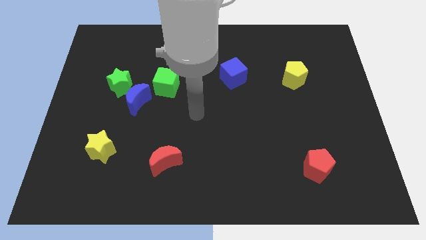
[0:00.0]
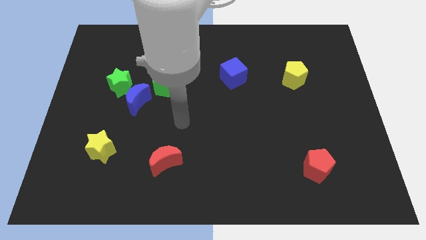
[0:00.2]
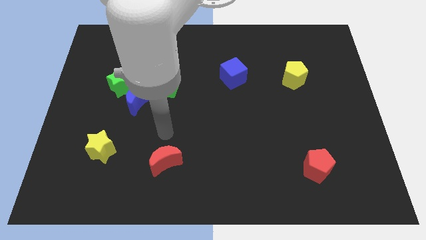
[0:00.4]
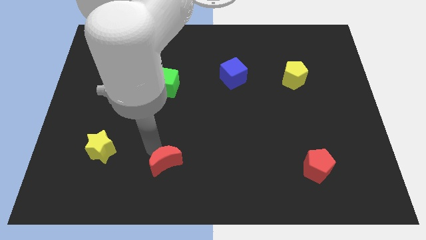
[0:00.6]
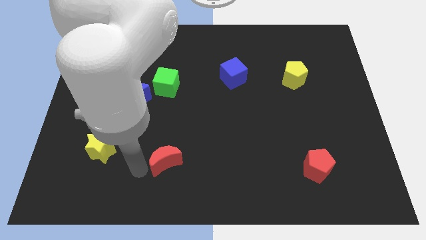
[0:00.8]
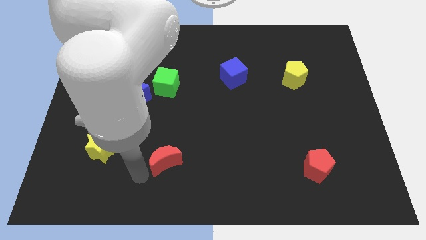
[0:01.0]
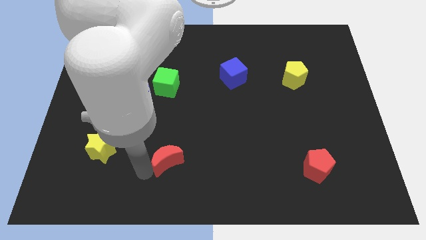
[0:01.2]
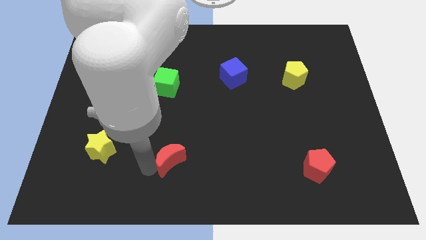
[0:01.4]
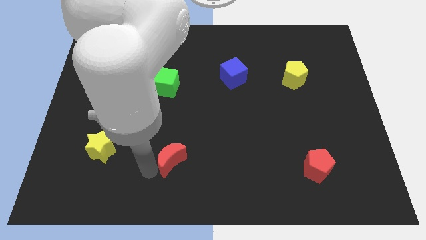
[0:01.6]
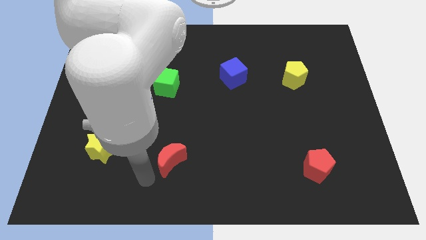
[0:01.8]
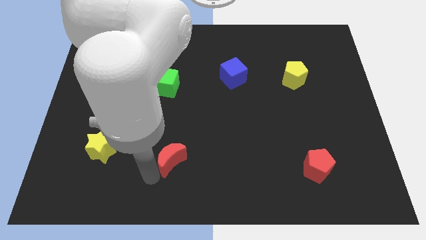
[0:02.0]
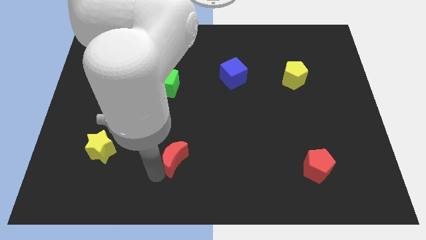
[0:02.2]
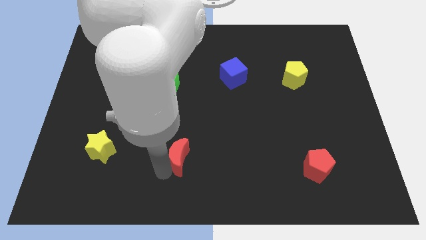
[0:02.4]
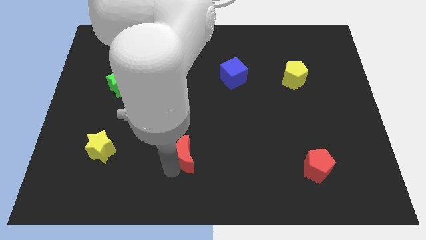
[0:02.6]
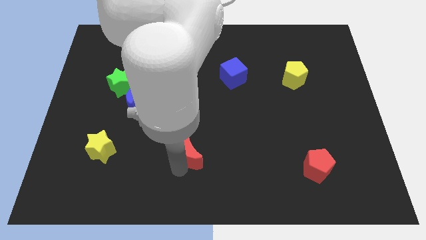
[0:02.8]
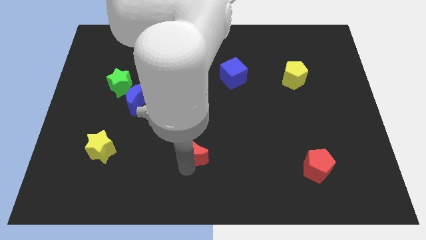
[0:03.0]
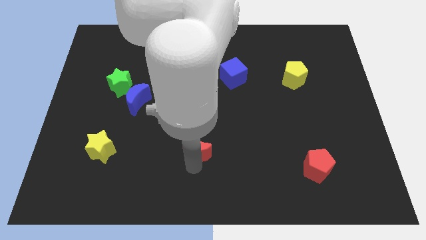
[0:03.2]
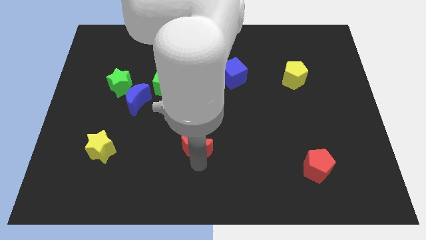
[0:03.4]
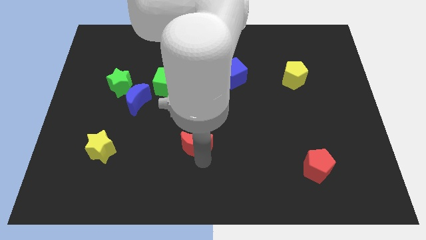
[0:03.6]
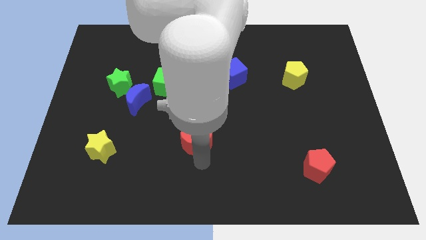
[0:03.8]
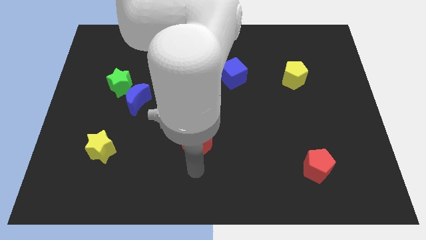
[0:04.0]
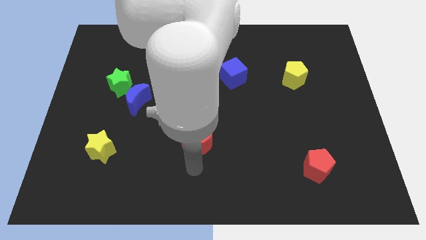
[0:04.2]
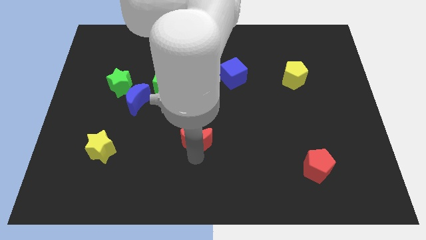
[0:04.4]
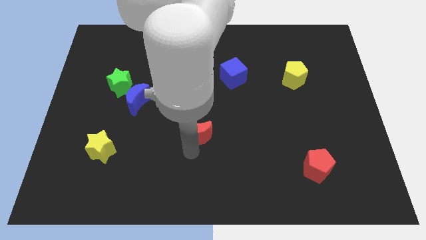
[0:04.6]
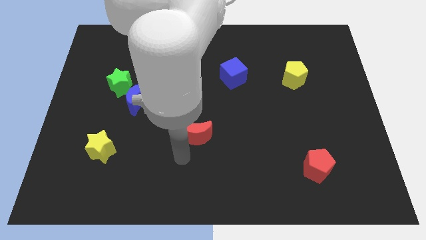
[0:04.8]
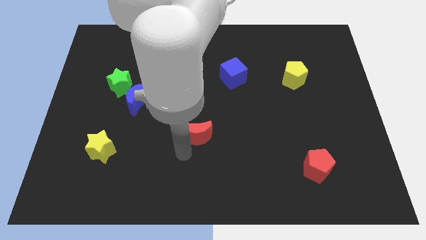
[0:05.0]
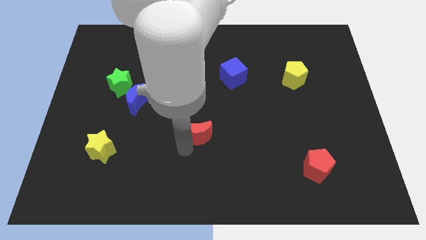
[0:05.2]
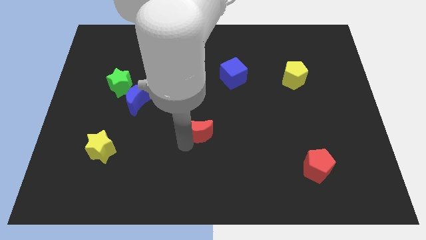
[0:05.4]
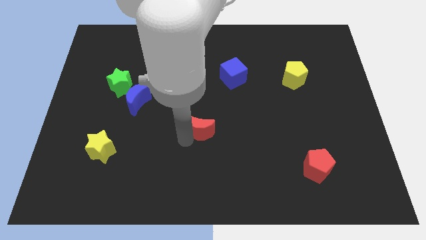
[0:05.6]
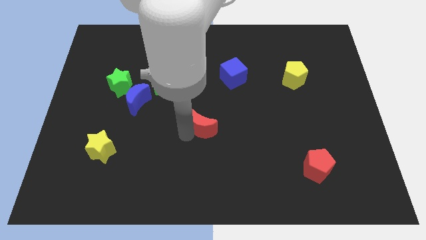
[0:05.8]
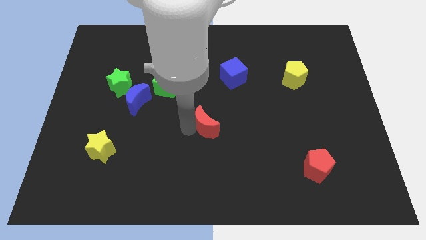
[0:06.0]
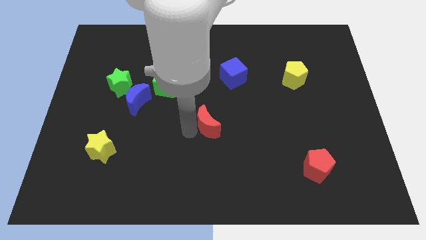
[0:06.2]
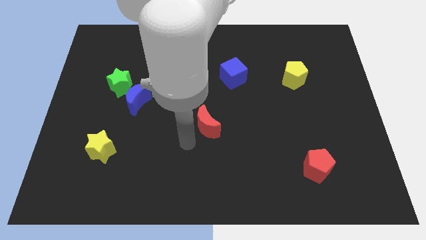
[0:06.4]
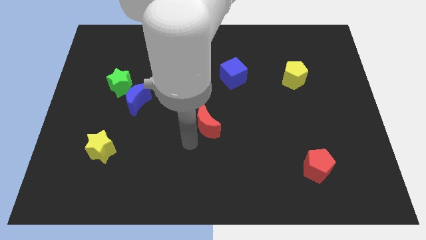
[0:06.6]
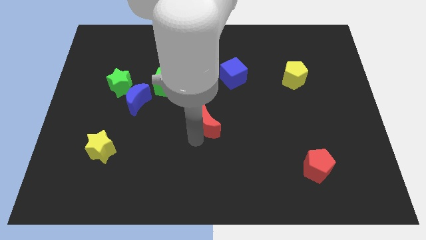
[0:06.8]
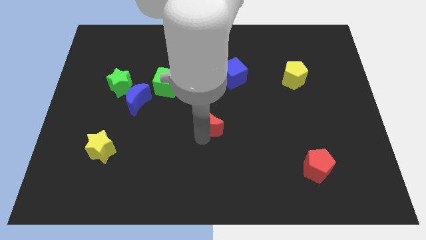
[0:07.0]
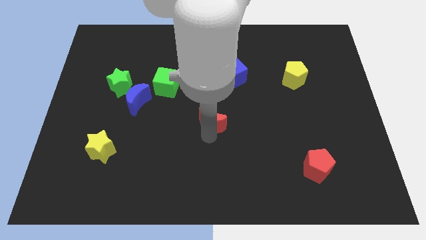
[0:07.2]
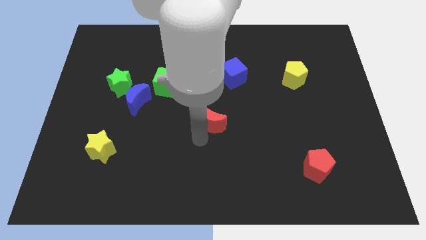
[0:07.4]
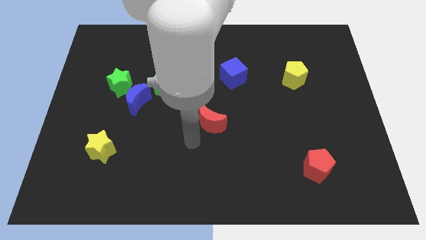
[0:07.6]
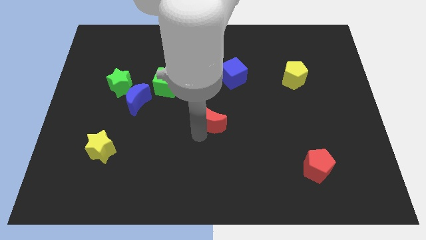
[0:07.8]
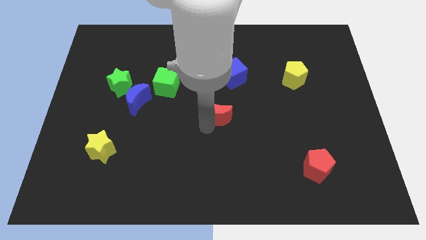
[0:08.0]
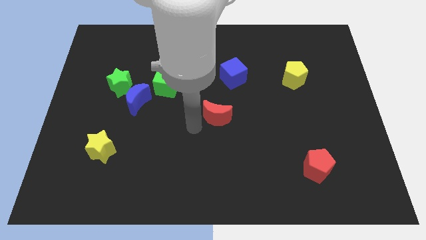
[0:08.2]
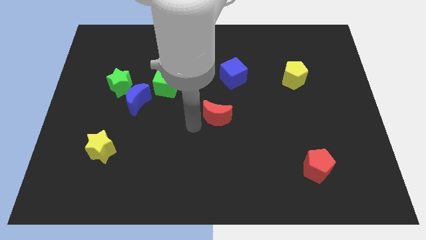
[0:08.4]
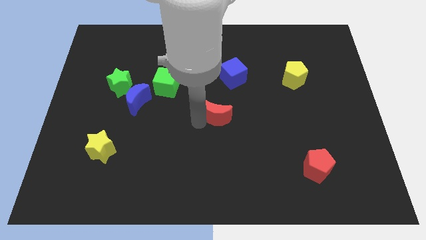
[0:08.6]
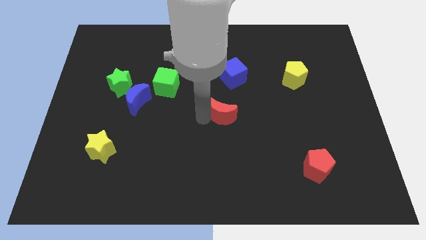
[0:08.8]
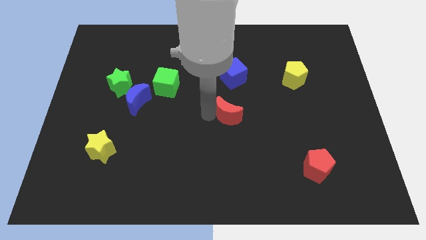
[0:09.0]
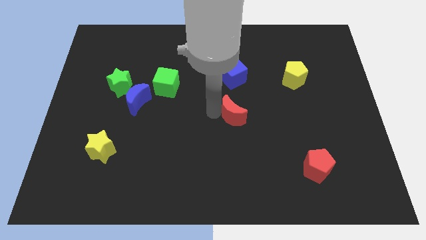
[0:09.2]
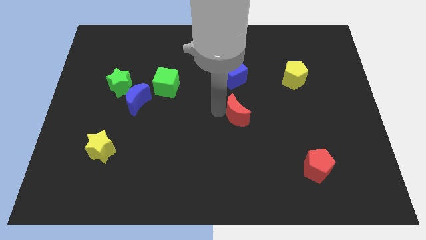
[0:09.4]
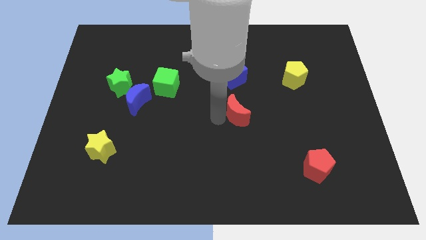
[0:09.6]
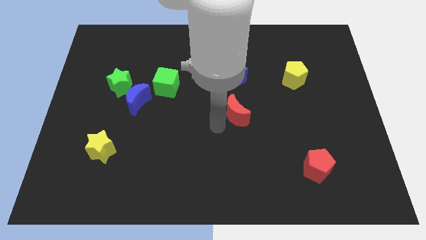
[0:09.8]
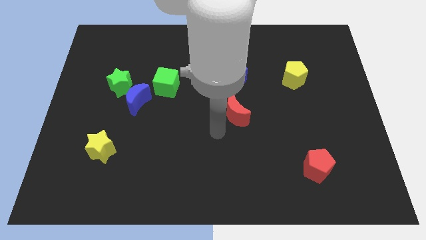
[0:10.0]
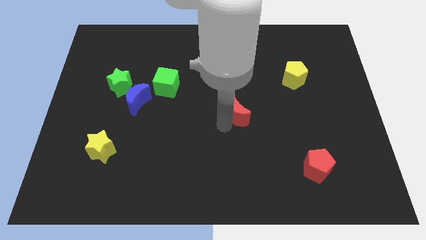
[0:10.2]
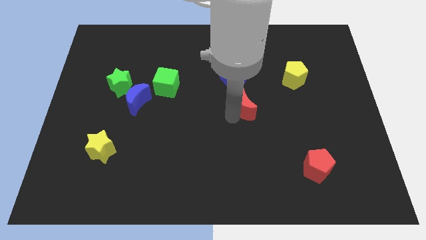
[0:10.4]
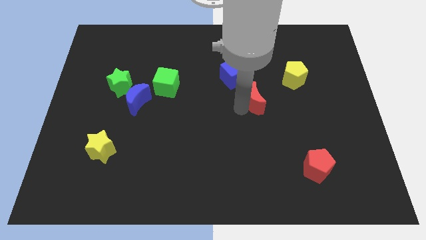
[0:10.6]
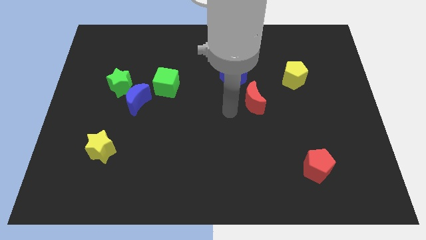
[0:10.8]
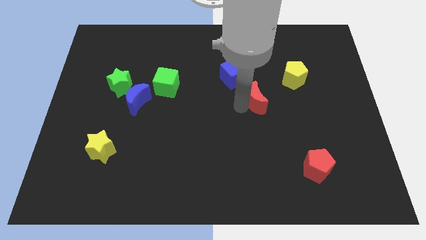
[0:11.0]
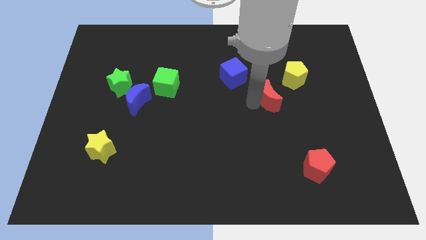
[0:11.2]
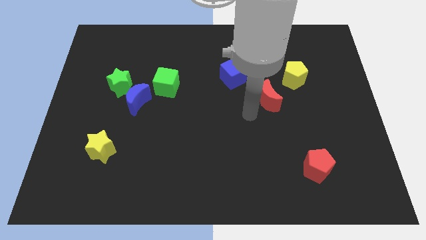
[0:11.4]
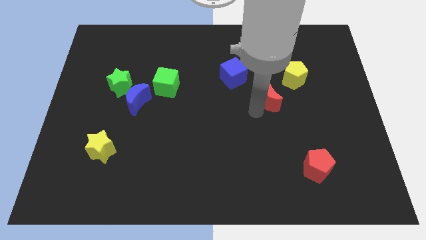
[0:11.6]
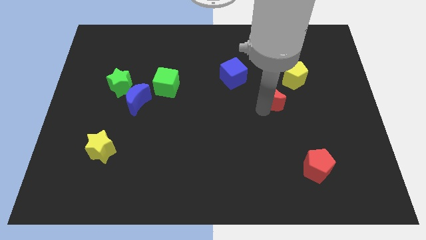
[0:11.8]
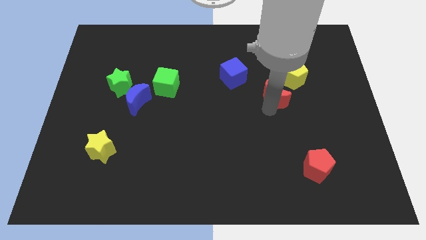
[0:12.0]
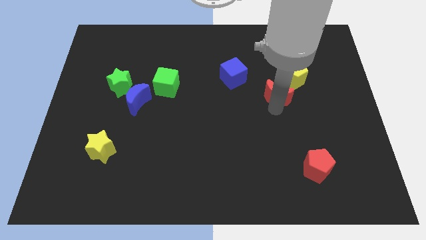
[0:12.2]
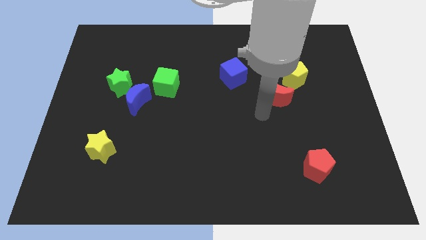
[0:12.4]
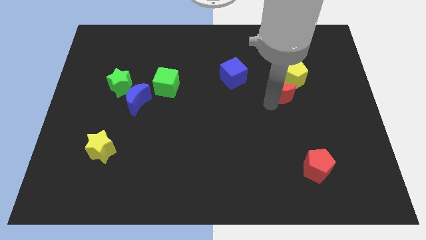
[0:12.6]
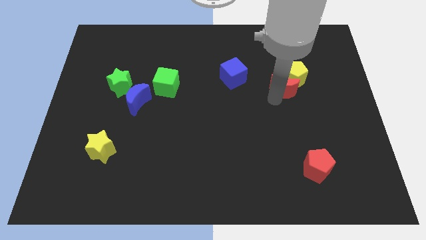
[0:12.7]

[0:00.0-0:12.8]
slide the red moon close to the yellow pentagon
